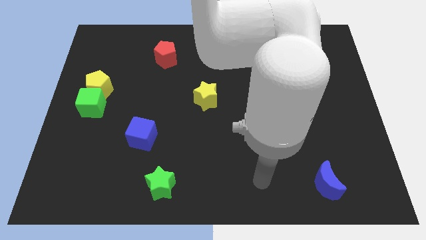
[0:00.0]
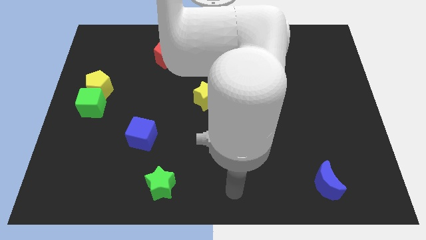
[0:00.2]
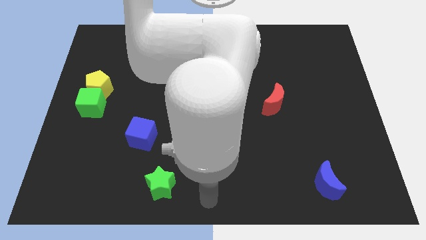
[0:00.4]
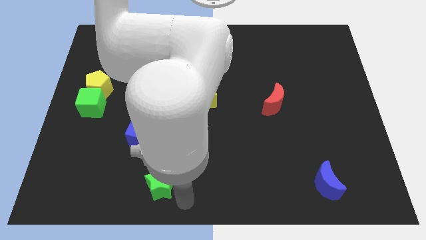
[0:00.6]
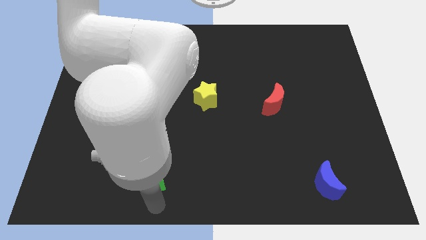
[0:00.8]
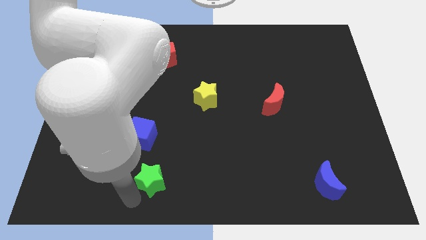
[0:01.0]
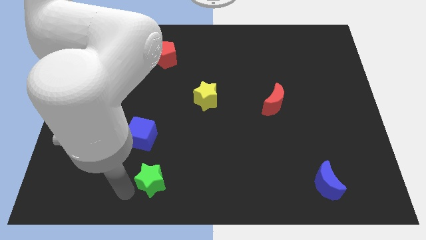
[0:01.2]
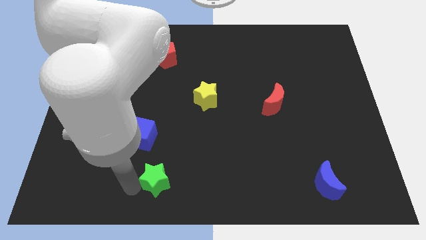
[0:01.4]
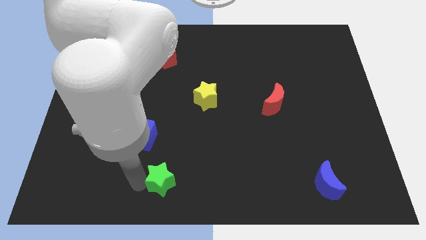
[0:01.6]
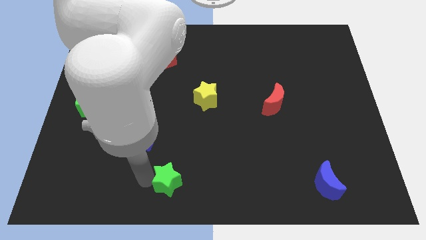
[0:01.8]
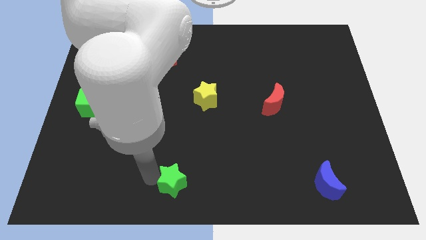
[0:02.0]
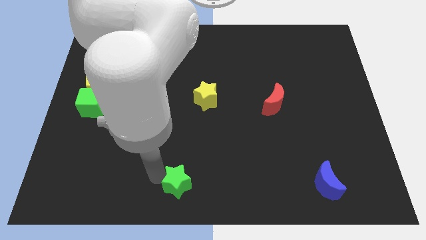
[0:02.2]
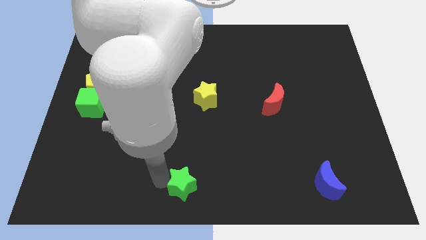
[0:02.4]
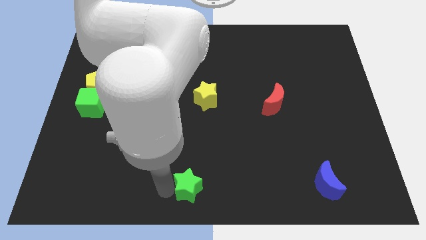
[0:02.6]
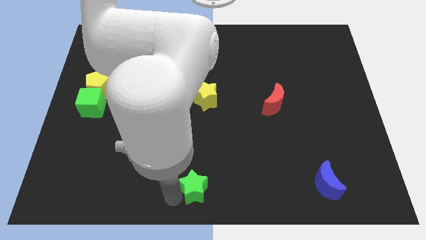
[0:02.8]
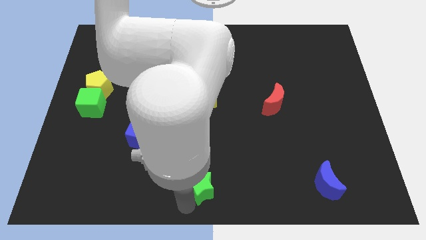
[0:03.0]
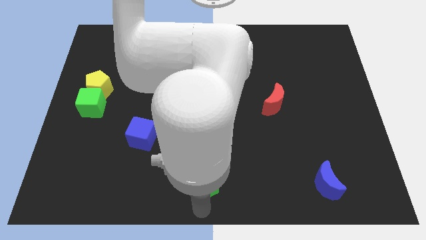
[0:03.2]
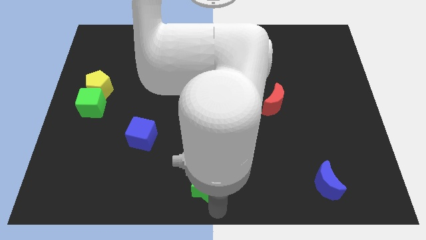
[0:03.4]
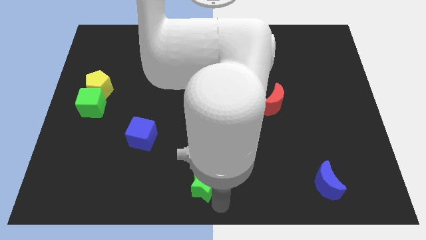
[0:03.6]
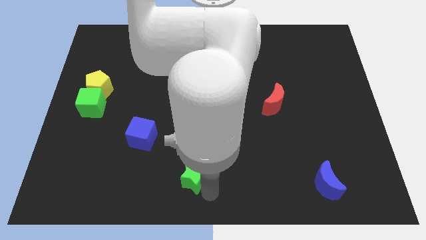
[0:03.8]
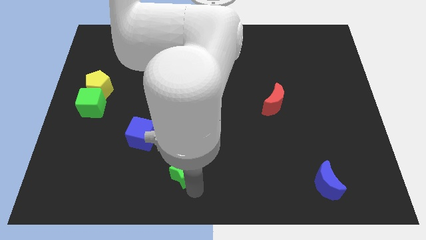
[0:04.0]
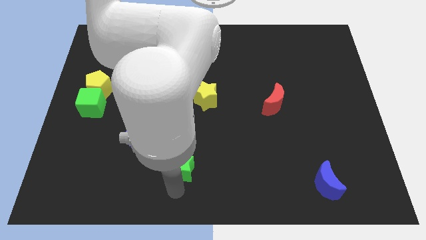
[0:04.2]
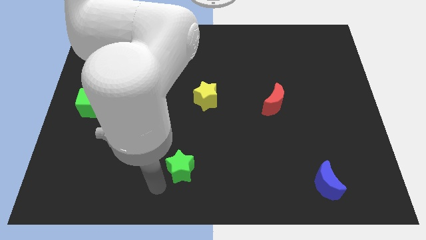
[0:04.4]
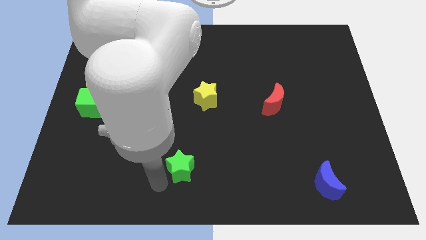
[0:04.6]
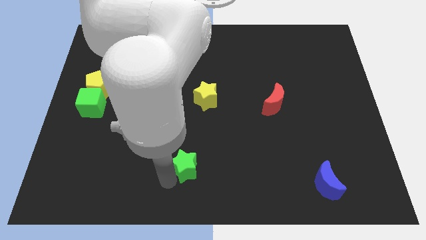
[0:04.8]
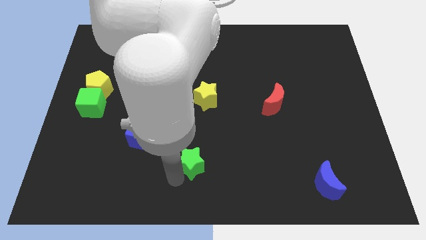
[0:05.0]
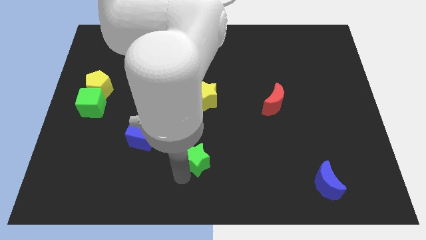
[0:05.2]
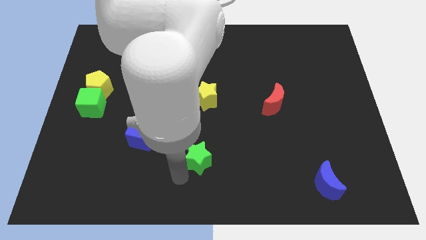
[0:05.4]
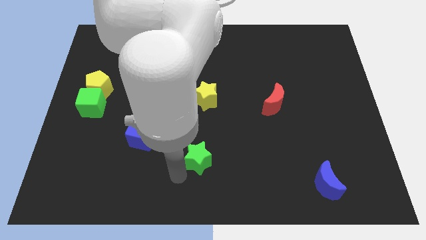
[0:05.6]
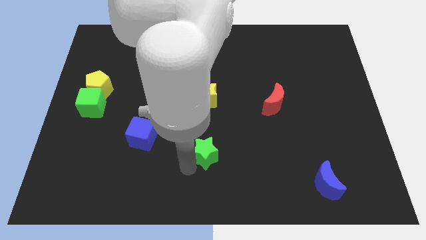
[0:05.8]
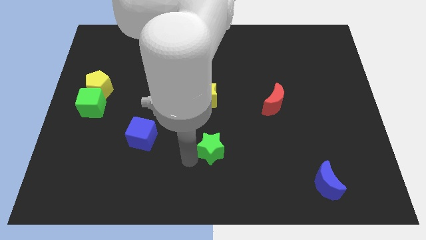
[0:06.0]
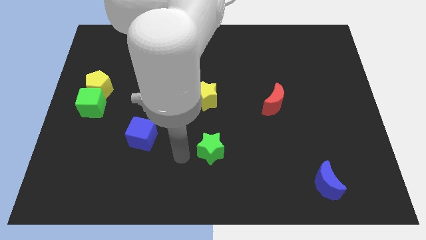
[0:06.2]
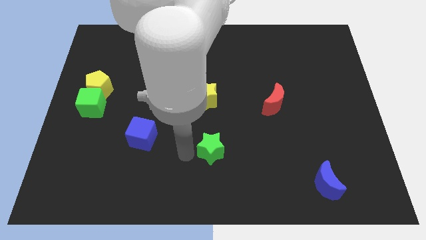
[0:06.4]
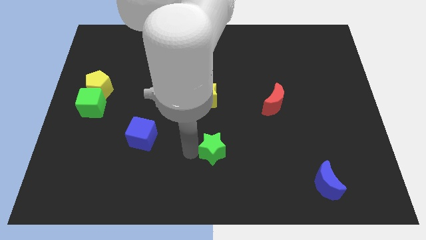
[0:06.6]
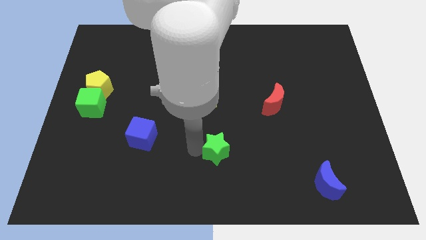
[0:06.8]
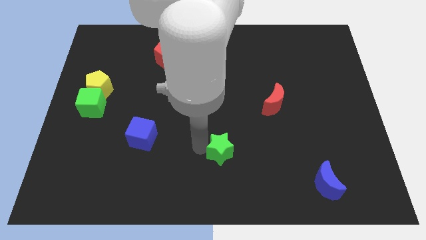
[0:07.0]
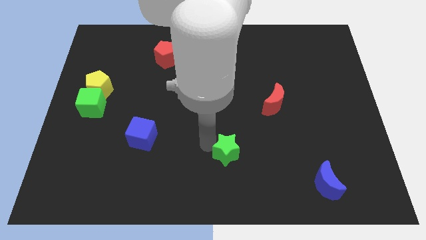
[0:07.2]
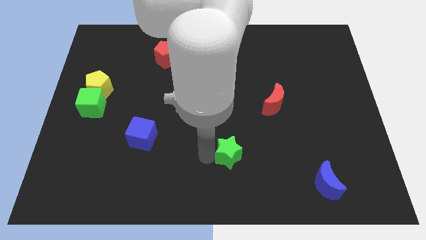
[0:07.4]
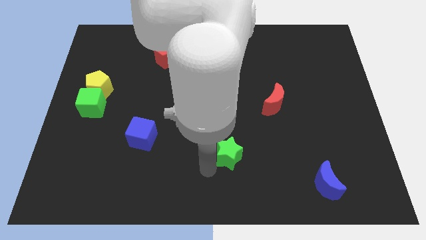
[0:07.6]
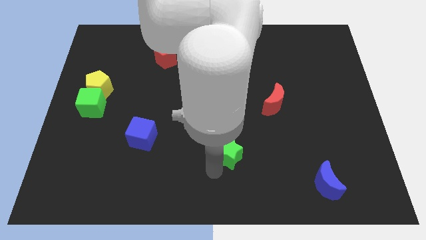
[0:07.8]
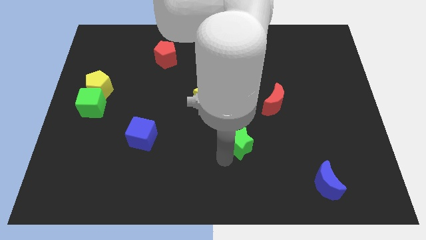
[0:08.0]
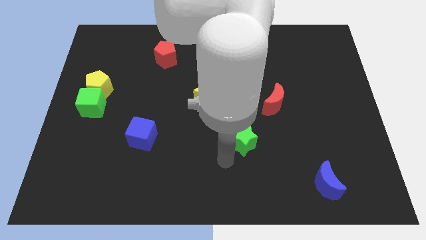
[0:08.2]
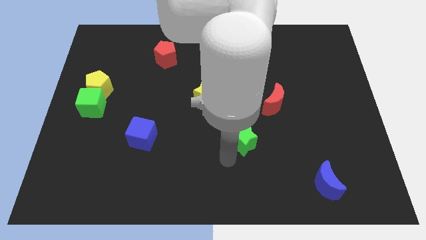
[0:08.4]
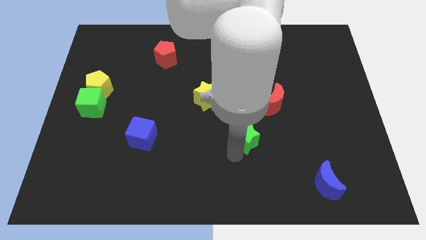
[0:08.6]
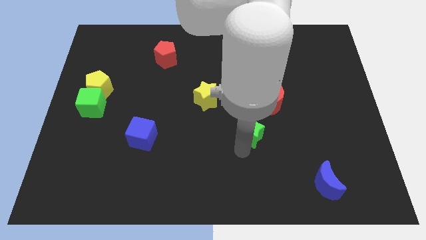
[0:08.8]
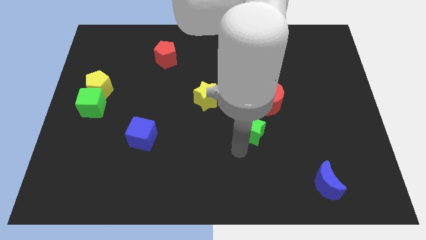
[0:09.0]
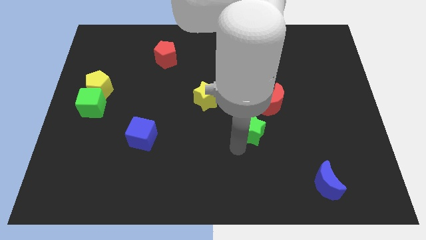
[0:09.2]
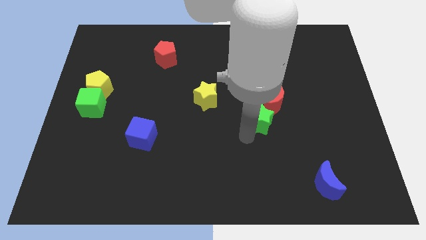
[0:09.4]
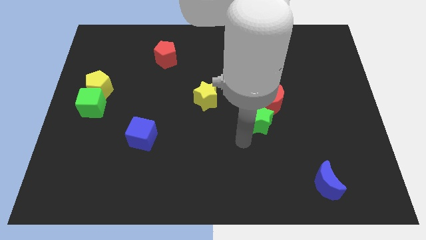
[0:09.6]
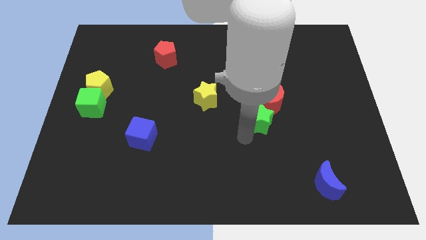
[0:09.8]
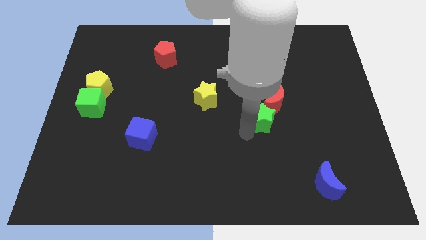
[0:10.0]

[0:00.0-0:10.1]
slide the green star to the red moon

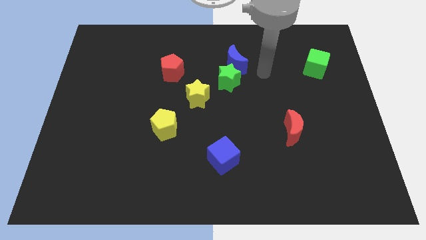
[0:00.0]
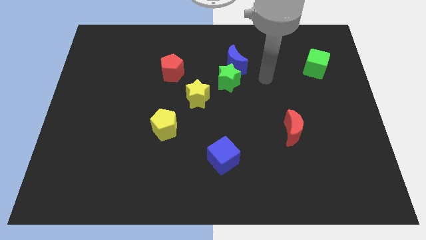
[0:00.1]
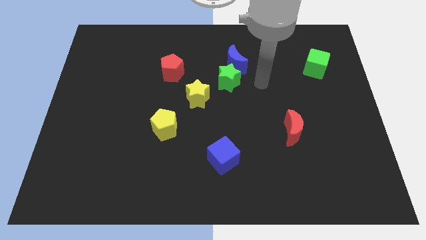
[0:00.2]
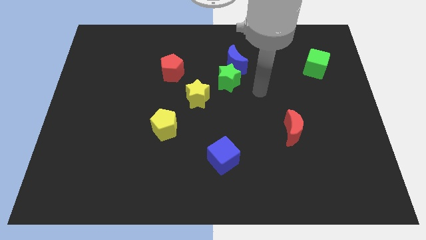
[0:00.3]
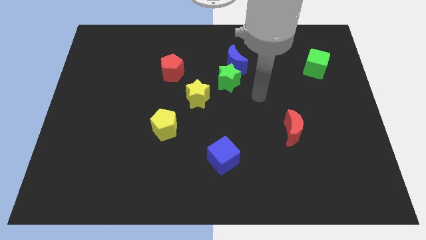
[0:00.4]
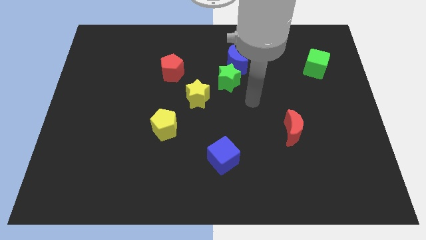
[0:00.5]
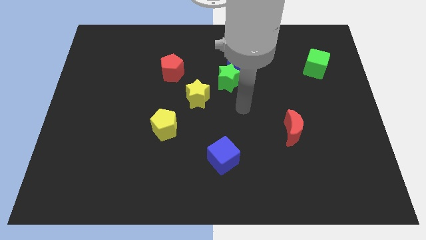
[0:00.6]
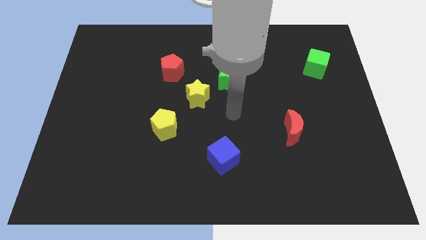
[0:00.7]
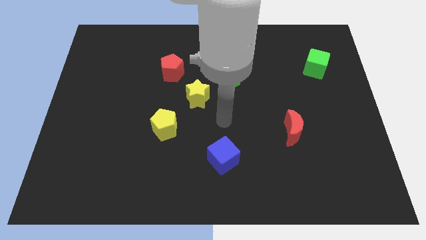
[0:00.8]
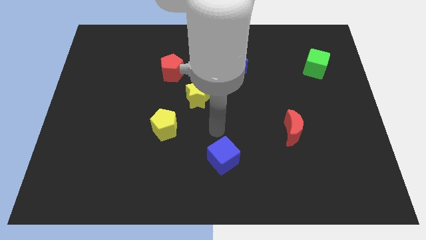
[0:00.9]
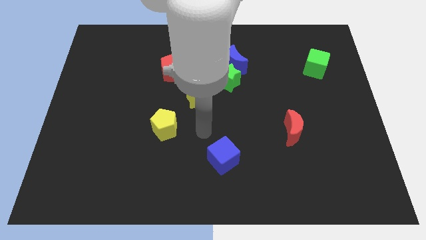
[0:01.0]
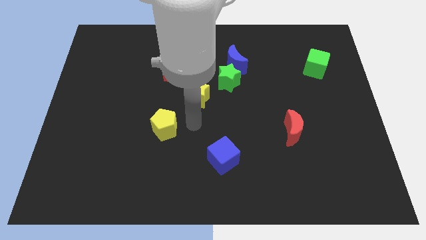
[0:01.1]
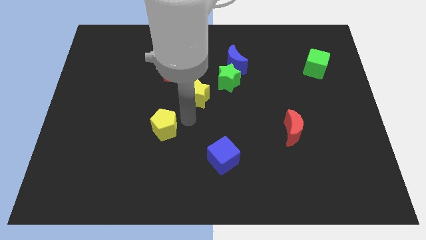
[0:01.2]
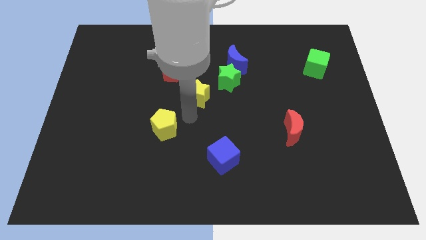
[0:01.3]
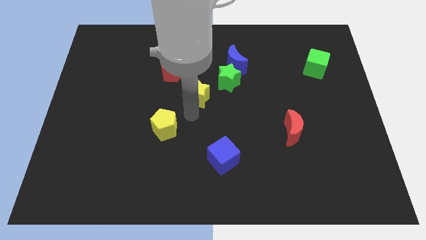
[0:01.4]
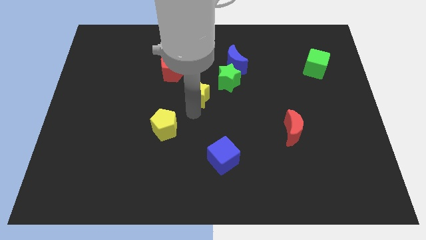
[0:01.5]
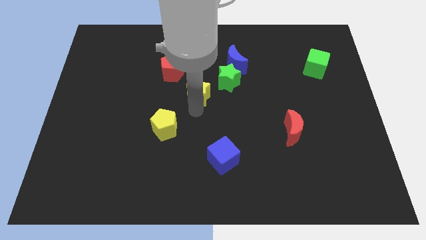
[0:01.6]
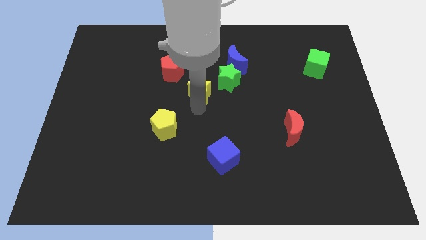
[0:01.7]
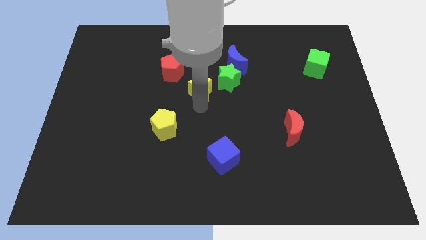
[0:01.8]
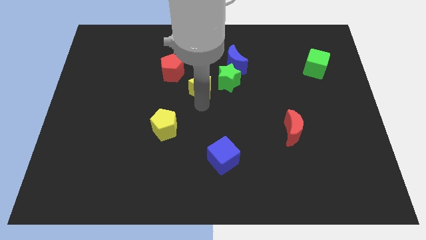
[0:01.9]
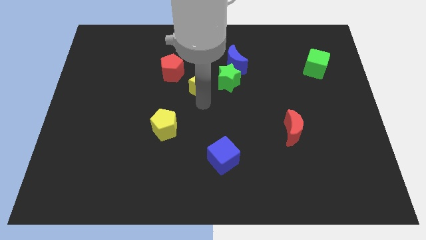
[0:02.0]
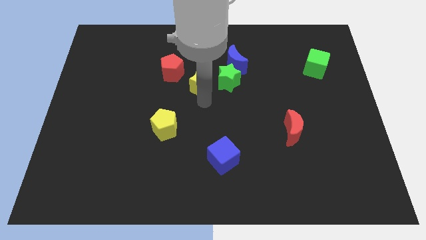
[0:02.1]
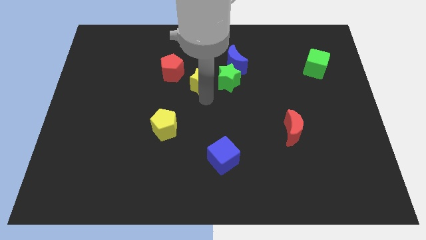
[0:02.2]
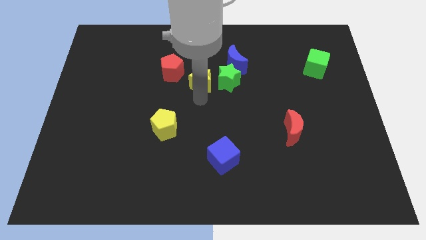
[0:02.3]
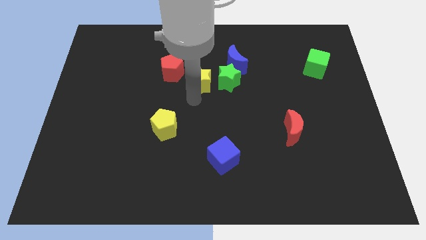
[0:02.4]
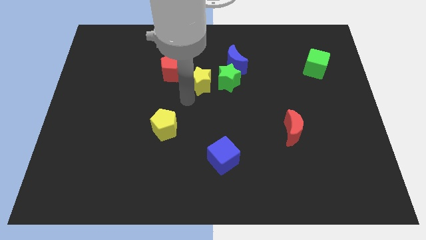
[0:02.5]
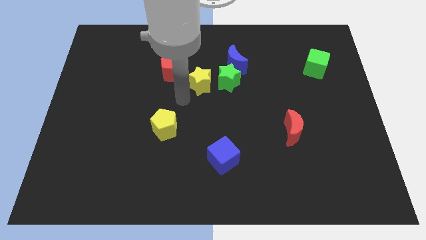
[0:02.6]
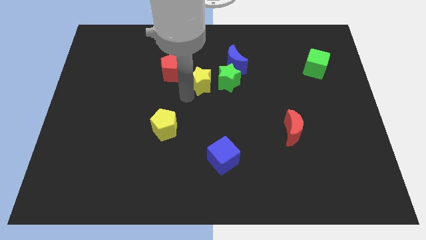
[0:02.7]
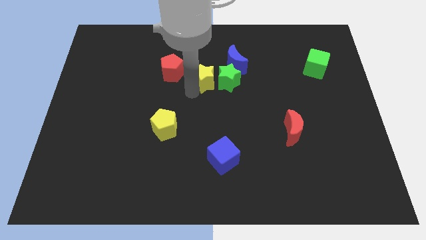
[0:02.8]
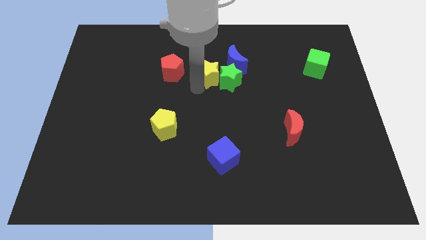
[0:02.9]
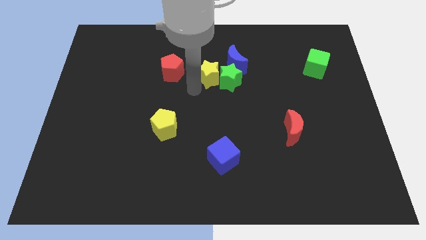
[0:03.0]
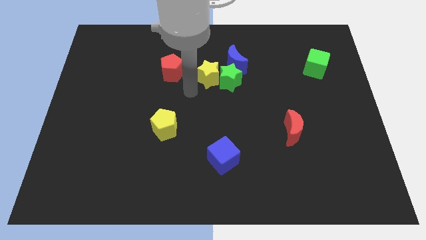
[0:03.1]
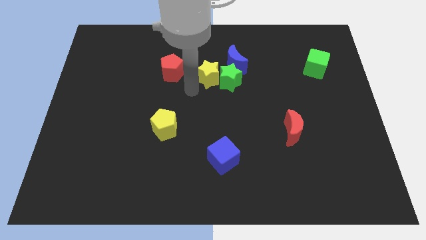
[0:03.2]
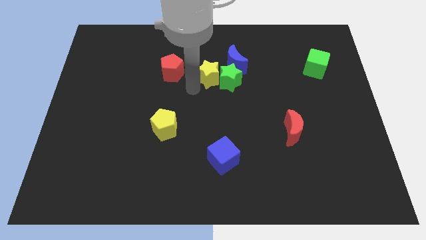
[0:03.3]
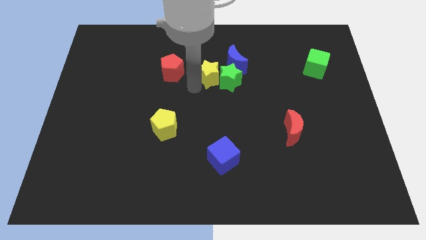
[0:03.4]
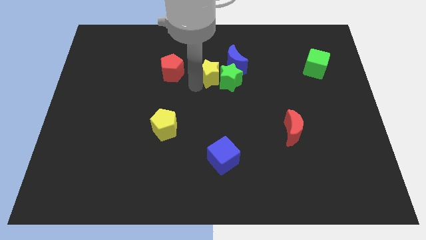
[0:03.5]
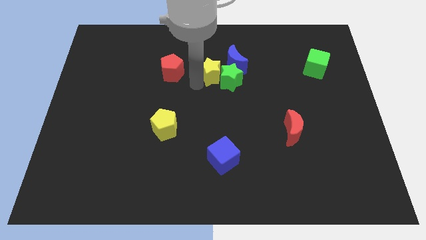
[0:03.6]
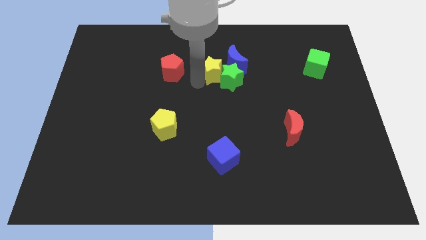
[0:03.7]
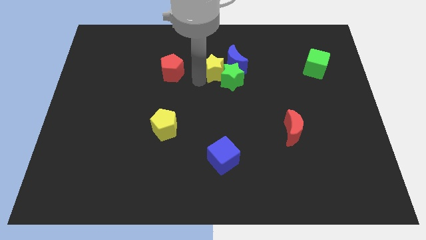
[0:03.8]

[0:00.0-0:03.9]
move the yellow star close to the blue moon
